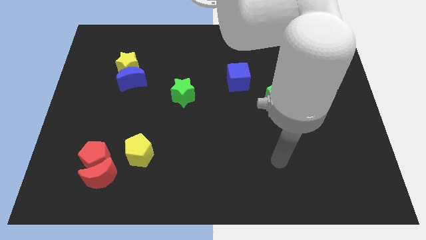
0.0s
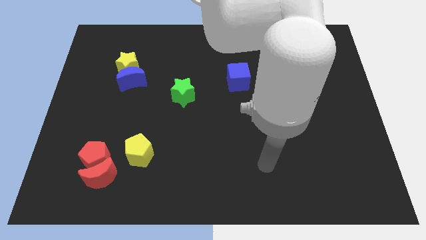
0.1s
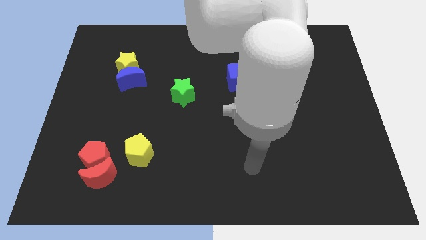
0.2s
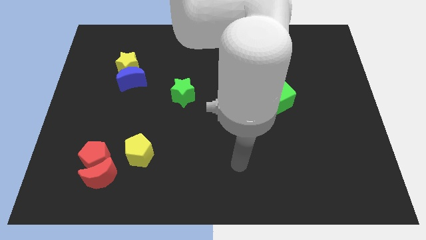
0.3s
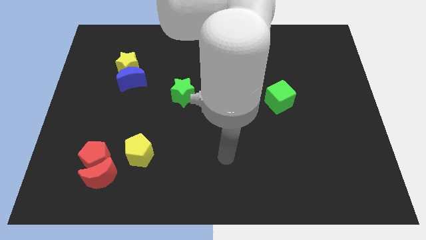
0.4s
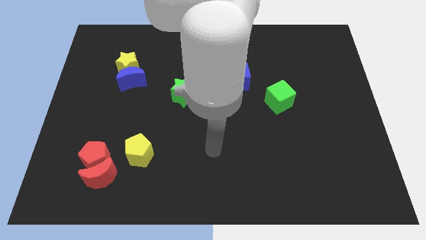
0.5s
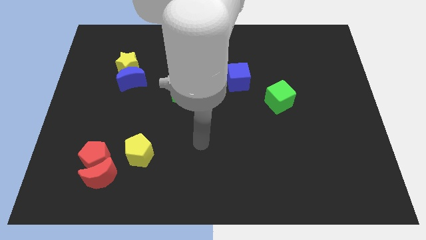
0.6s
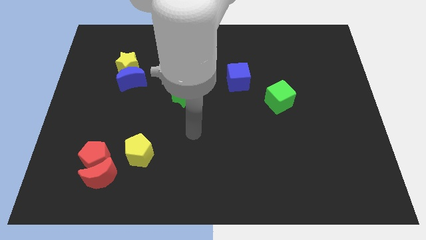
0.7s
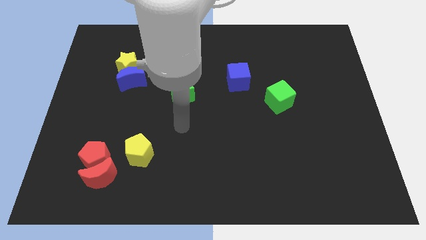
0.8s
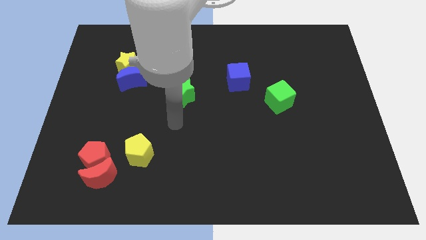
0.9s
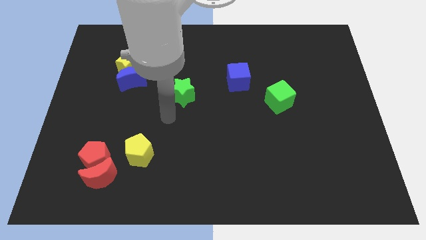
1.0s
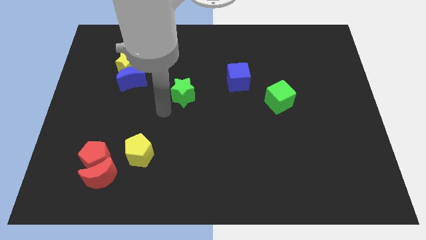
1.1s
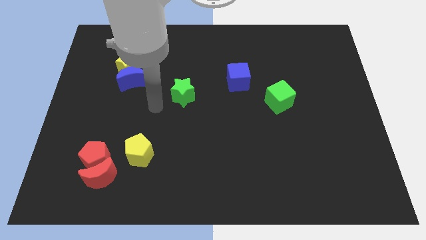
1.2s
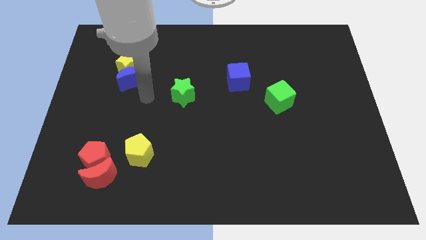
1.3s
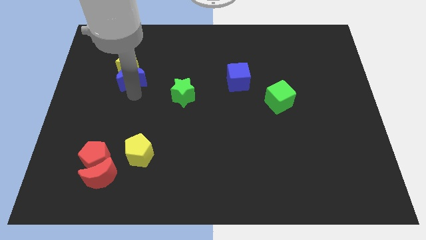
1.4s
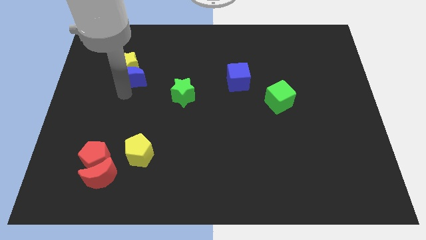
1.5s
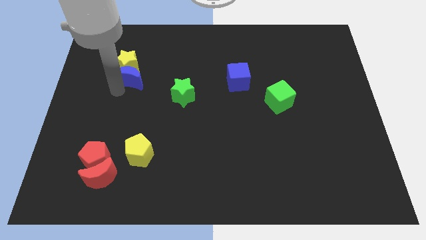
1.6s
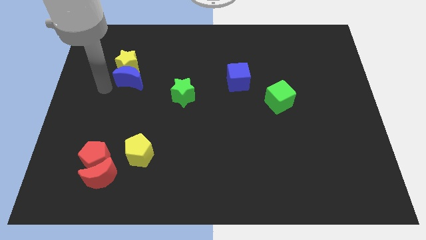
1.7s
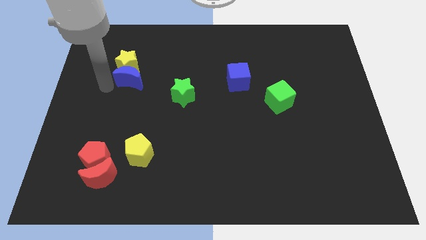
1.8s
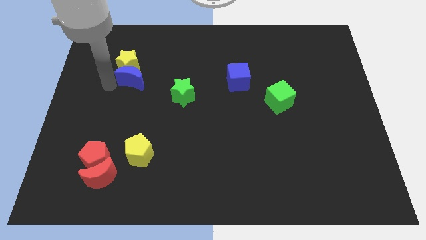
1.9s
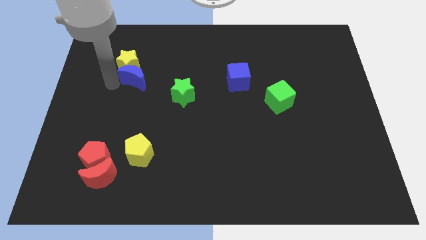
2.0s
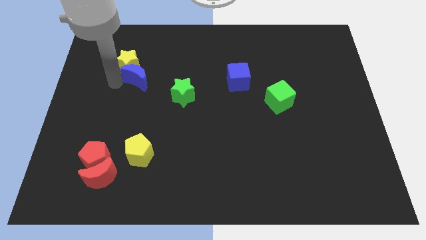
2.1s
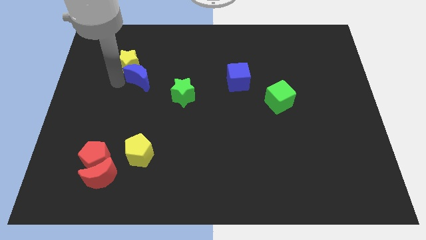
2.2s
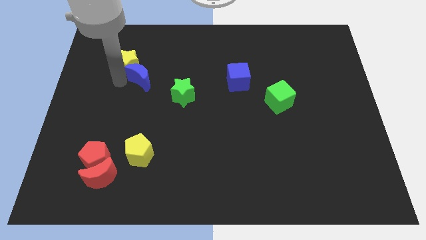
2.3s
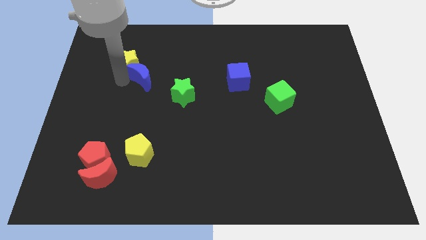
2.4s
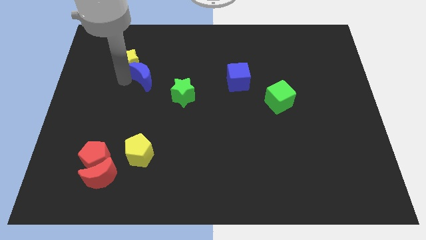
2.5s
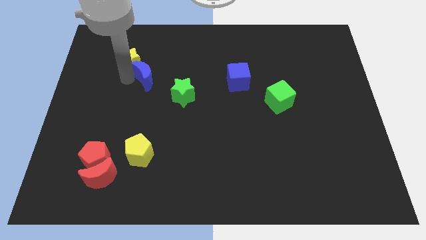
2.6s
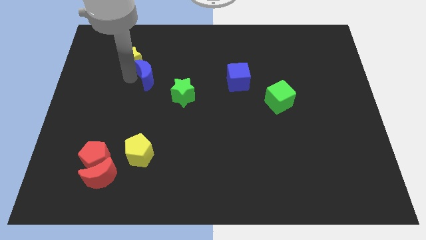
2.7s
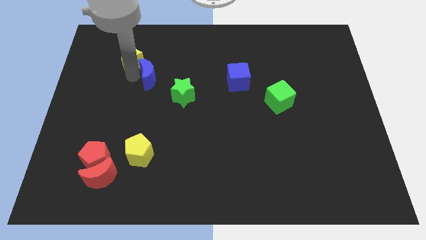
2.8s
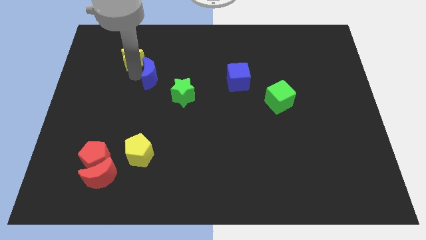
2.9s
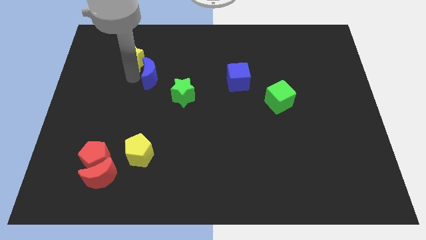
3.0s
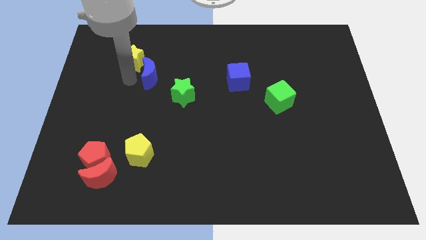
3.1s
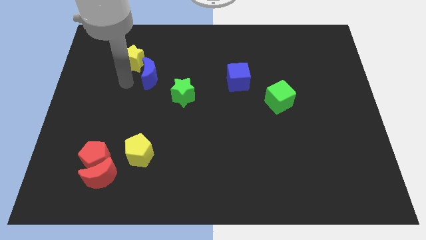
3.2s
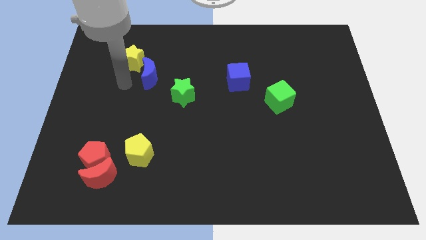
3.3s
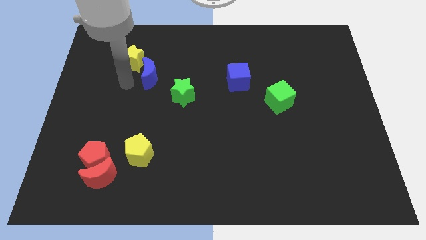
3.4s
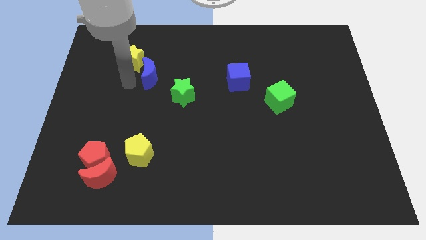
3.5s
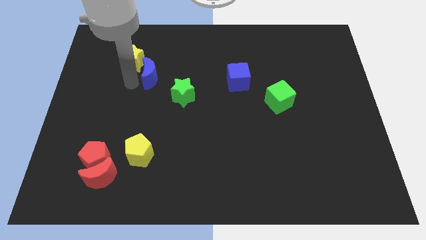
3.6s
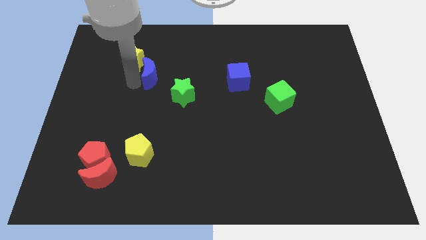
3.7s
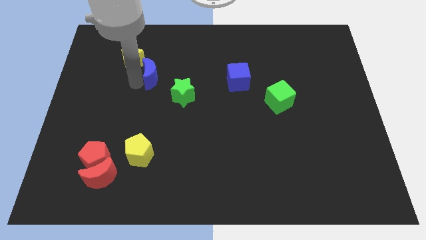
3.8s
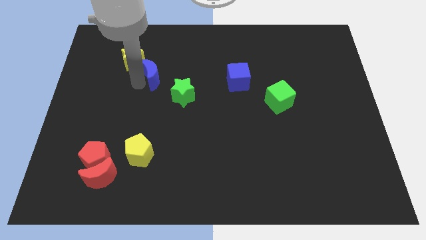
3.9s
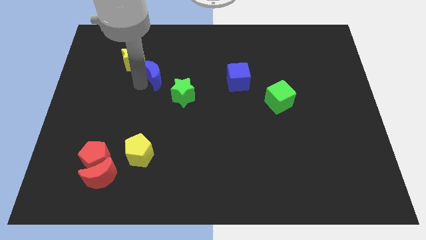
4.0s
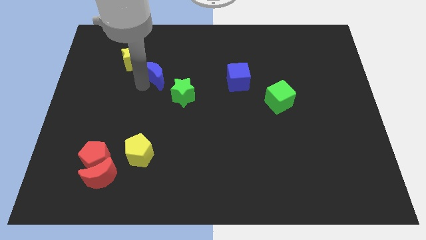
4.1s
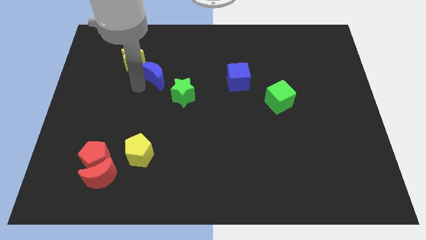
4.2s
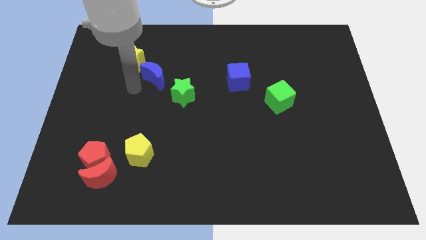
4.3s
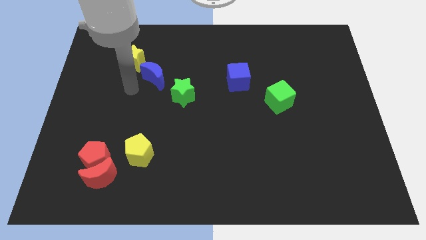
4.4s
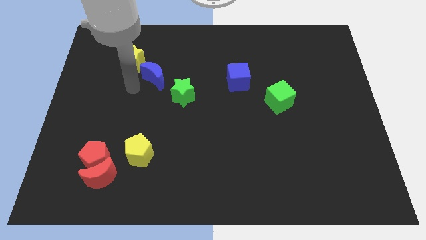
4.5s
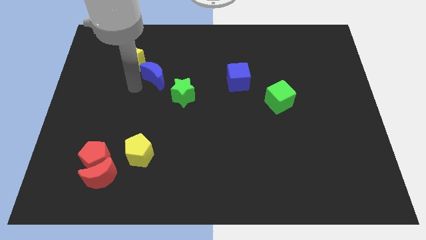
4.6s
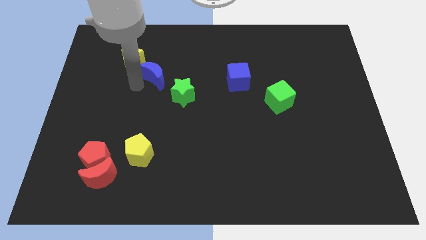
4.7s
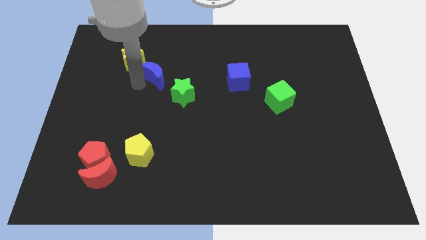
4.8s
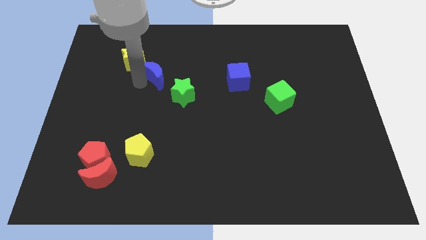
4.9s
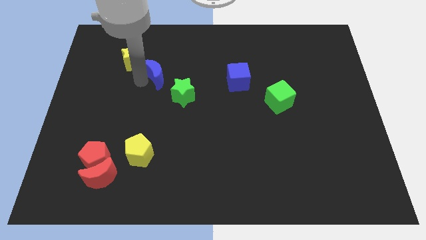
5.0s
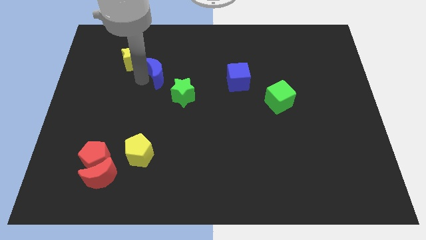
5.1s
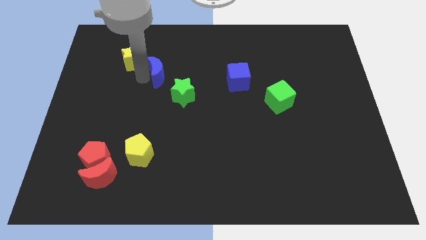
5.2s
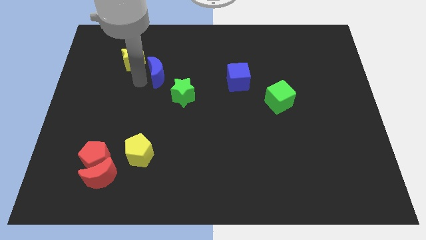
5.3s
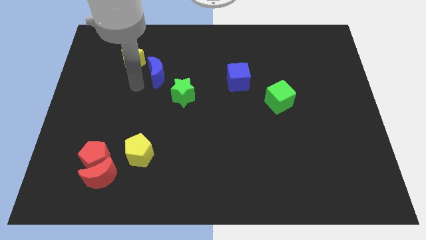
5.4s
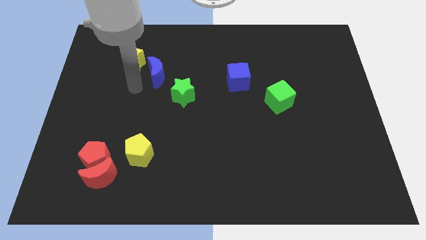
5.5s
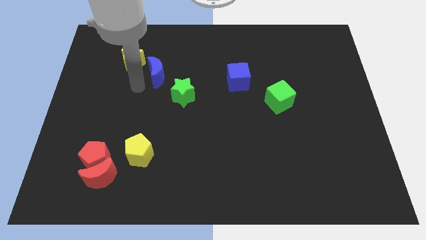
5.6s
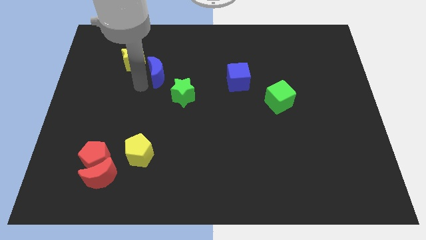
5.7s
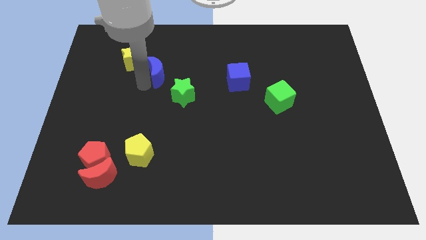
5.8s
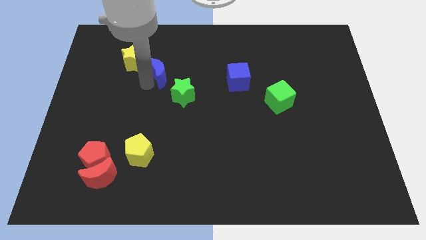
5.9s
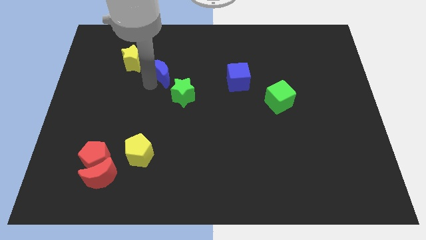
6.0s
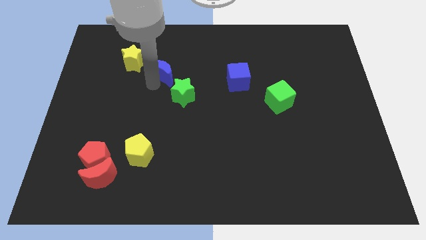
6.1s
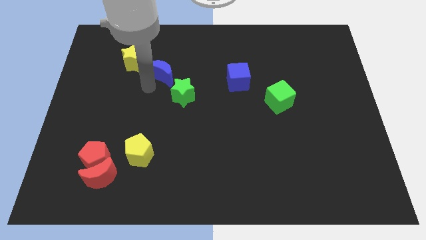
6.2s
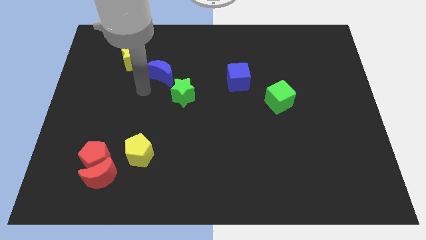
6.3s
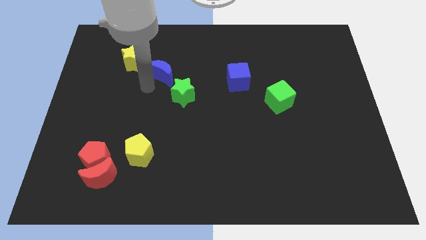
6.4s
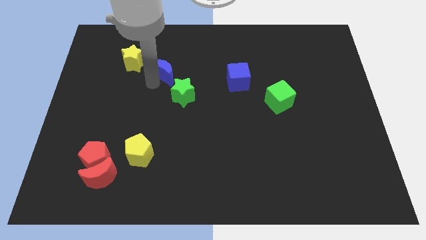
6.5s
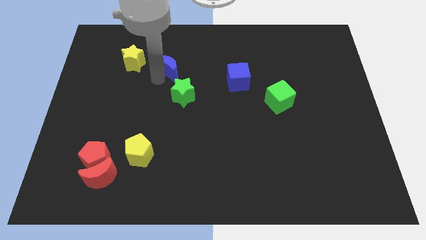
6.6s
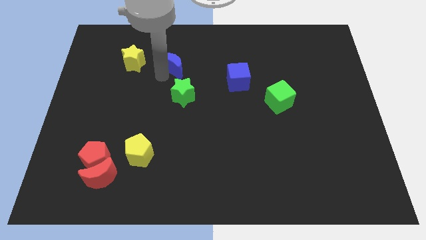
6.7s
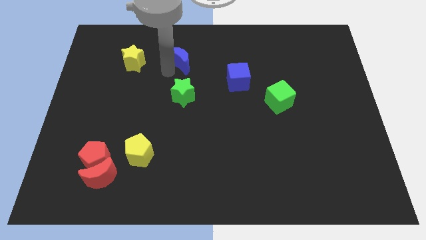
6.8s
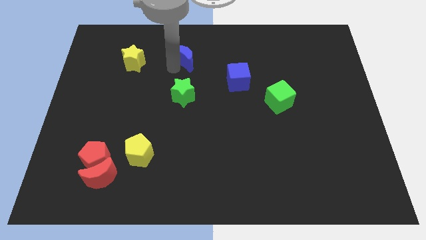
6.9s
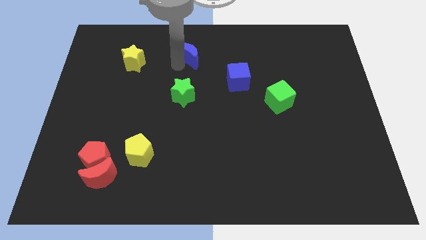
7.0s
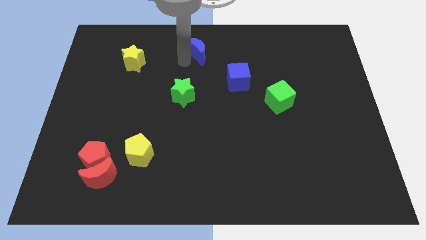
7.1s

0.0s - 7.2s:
put the blue moon to the towards your base

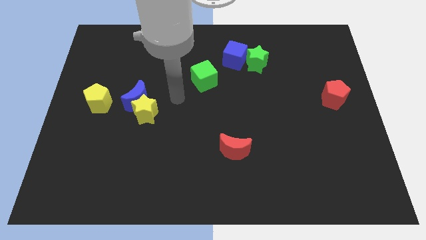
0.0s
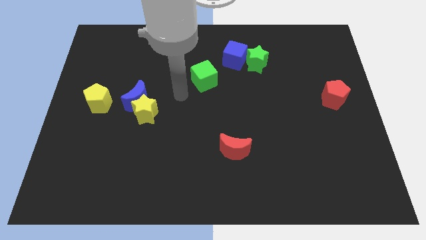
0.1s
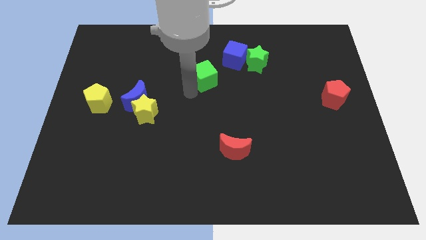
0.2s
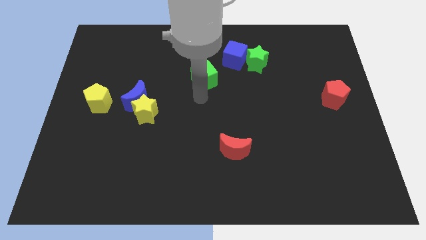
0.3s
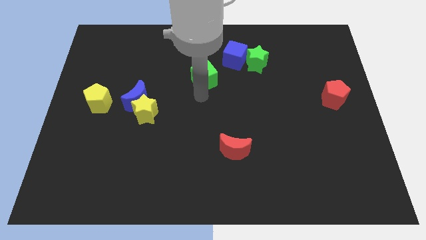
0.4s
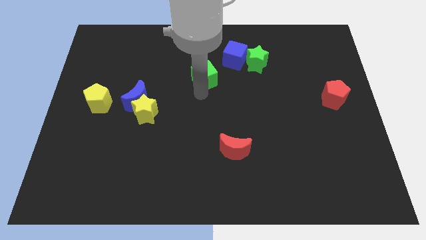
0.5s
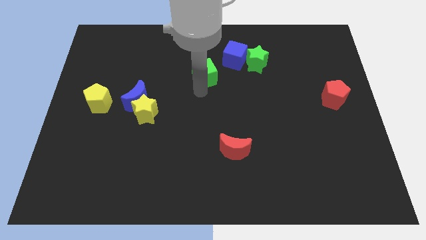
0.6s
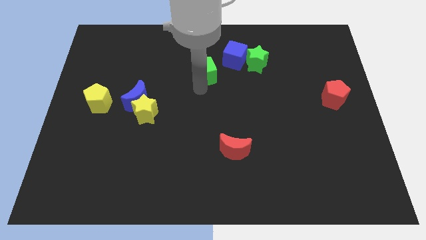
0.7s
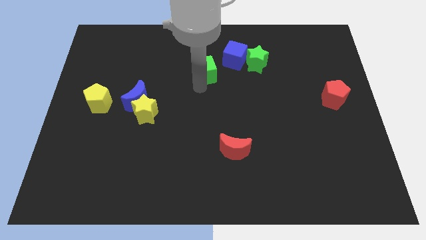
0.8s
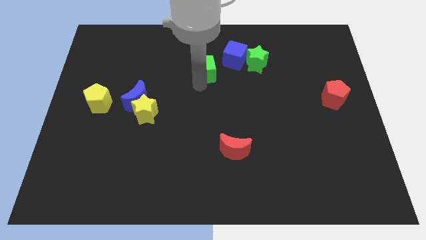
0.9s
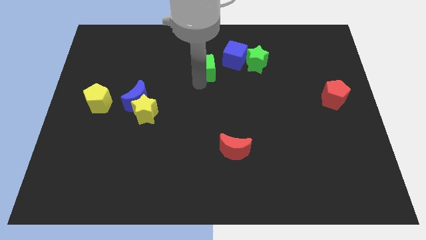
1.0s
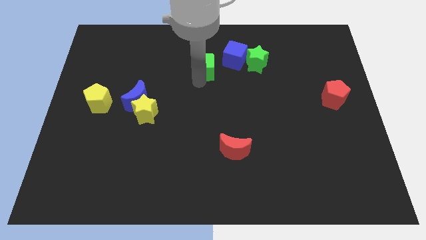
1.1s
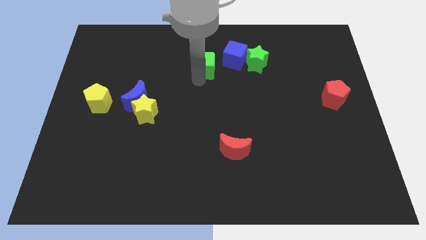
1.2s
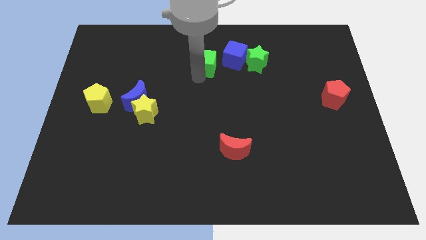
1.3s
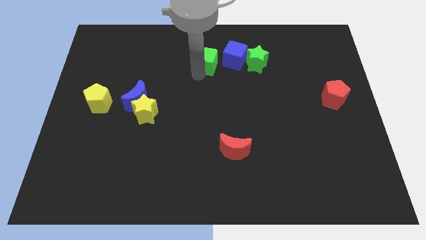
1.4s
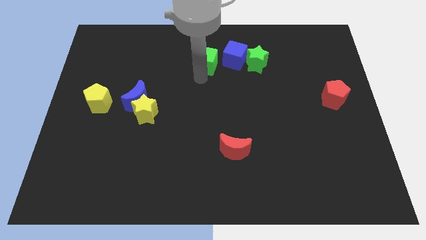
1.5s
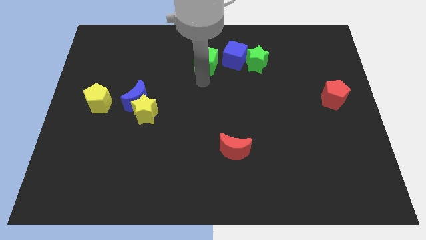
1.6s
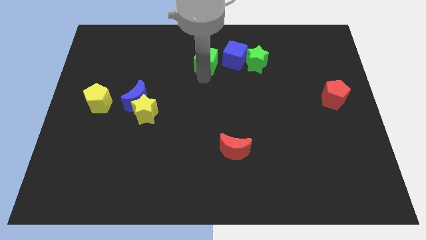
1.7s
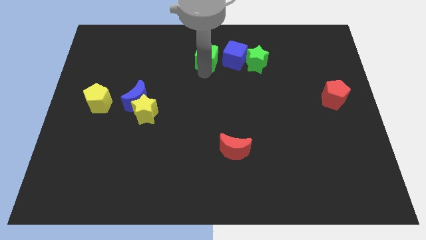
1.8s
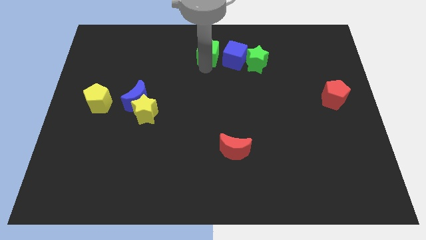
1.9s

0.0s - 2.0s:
slide the green cube to the towards your base
